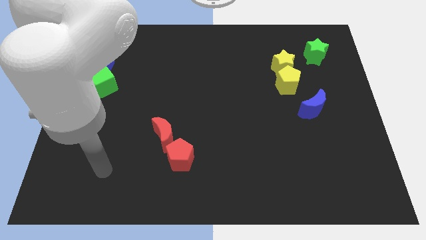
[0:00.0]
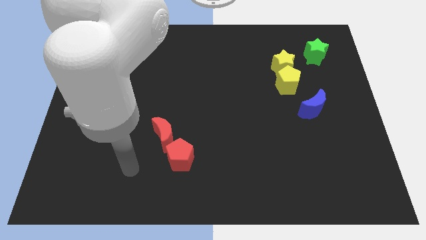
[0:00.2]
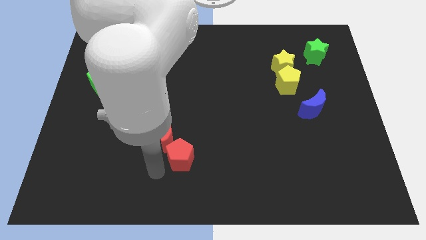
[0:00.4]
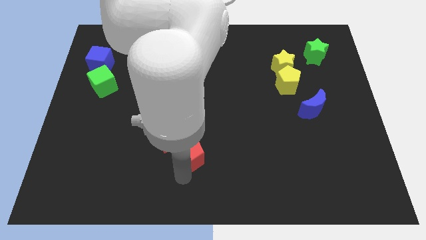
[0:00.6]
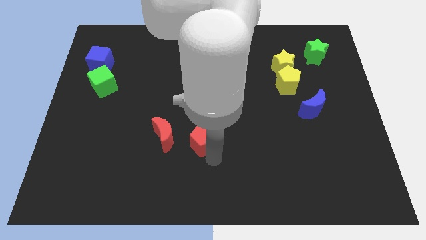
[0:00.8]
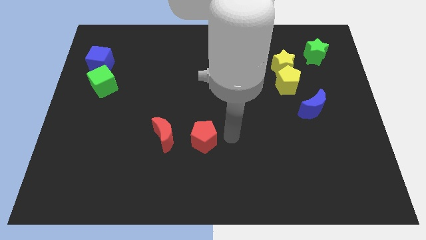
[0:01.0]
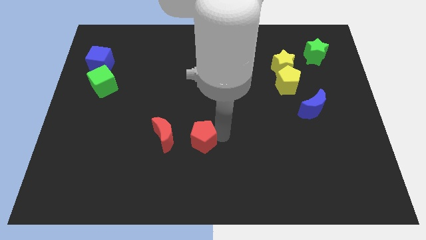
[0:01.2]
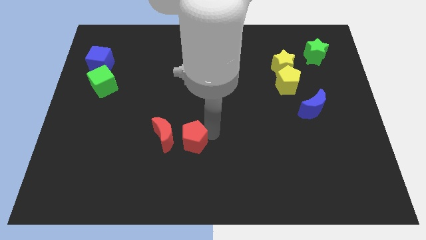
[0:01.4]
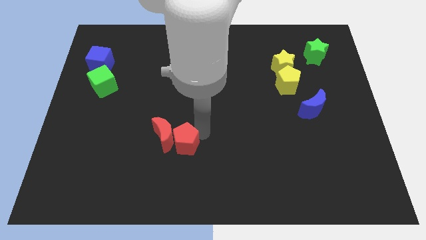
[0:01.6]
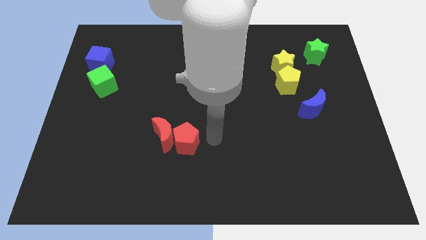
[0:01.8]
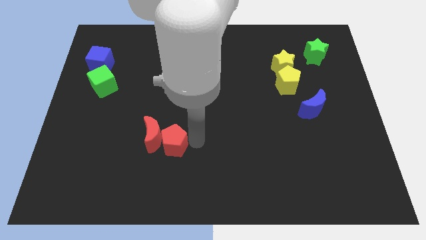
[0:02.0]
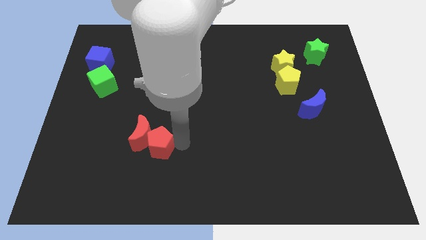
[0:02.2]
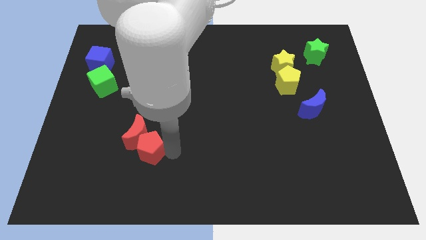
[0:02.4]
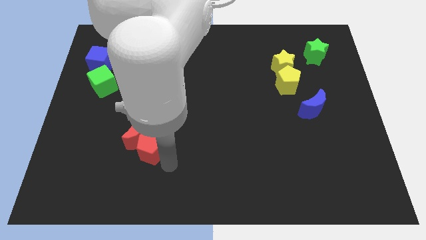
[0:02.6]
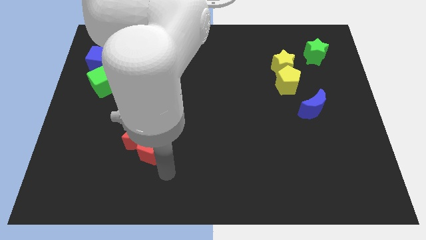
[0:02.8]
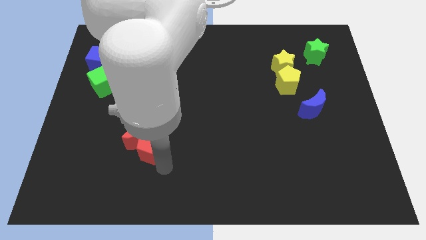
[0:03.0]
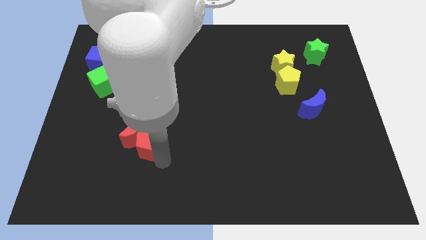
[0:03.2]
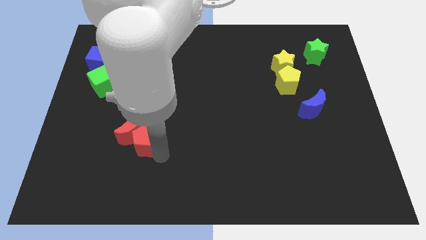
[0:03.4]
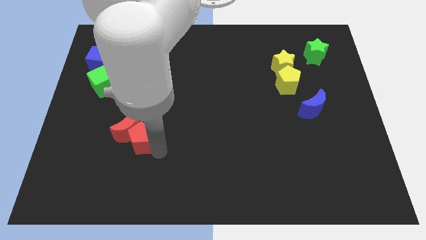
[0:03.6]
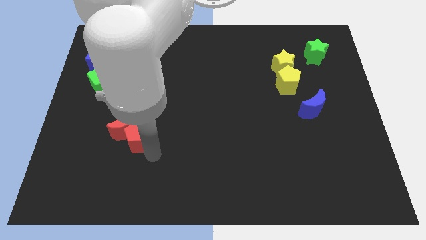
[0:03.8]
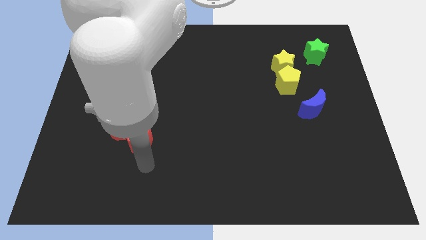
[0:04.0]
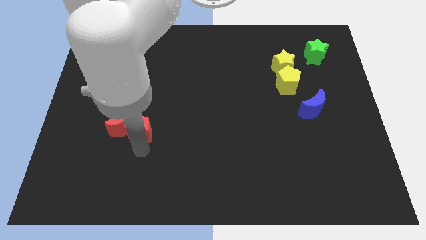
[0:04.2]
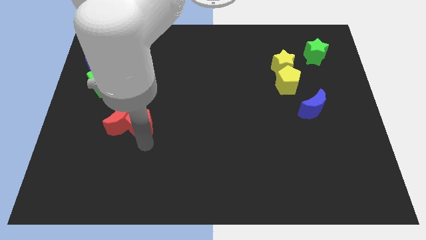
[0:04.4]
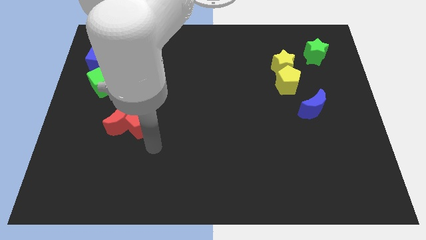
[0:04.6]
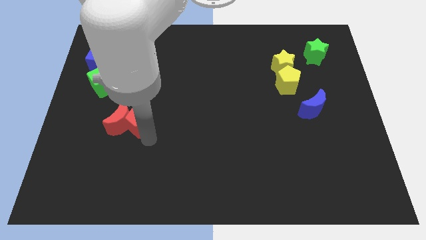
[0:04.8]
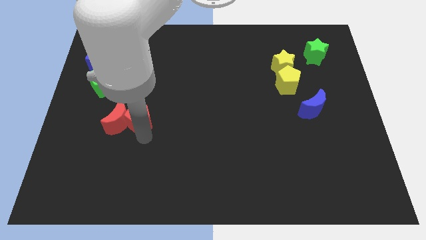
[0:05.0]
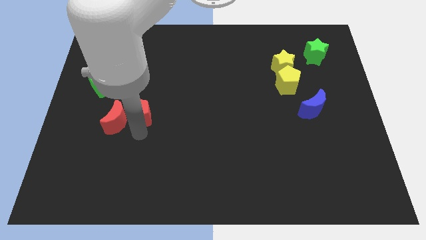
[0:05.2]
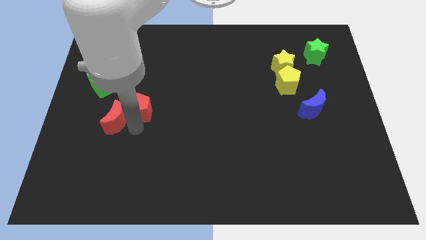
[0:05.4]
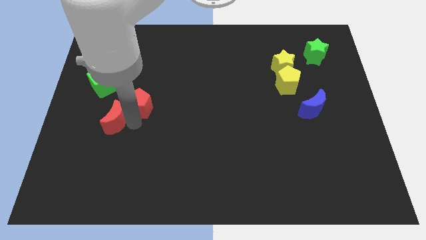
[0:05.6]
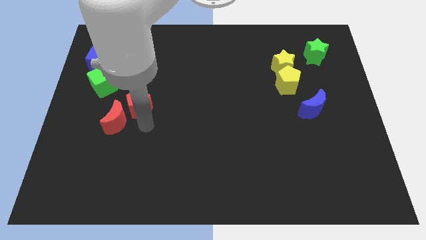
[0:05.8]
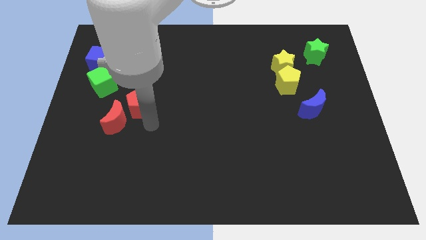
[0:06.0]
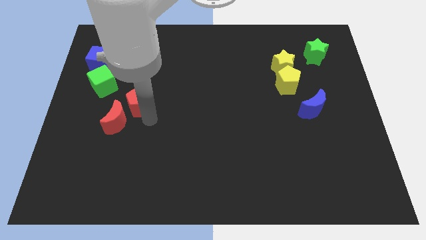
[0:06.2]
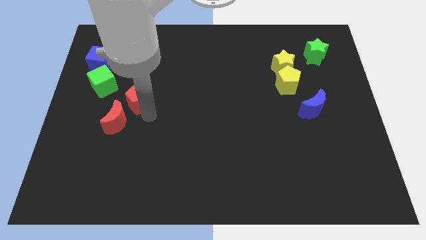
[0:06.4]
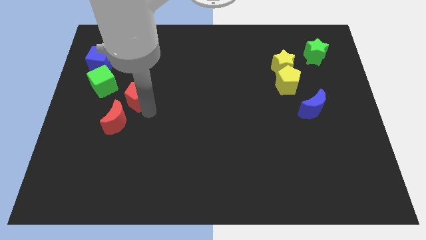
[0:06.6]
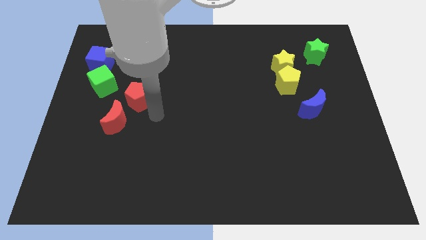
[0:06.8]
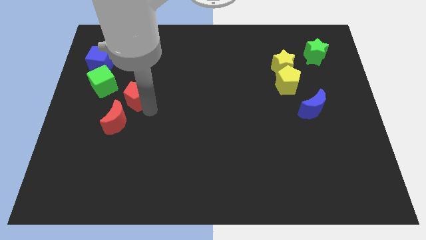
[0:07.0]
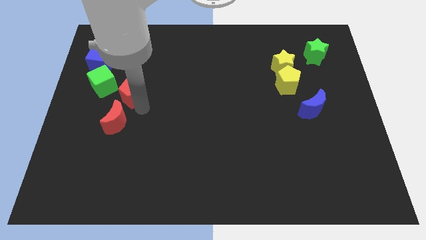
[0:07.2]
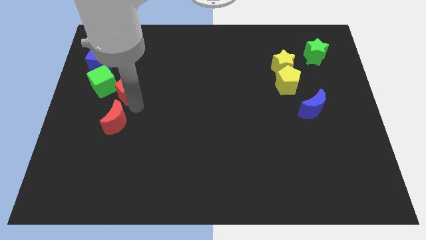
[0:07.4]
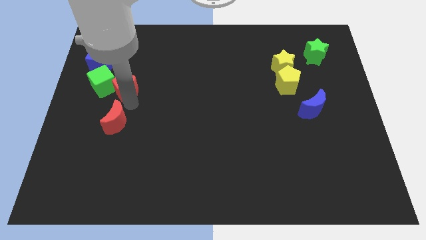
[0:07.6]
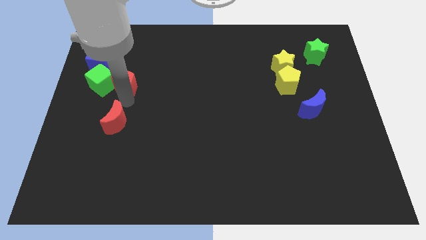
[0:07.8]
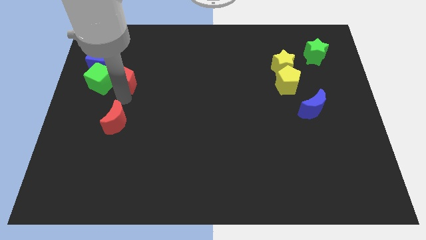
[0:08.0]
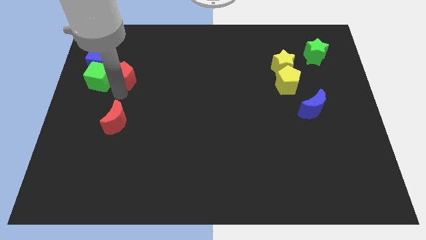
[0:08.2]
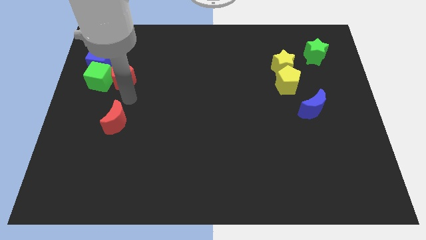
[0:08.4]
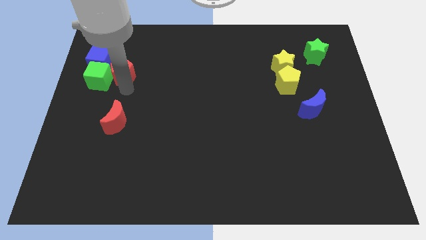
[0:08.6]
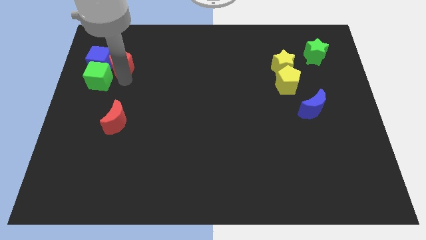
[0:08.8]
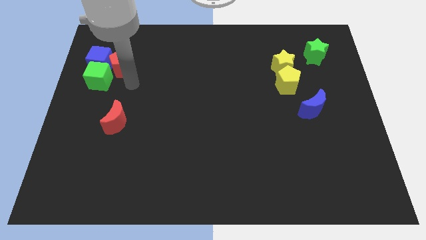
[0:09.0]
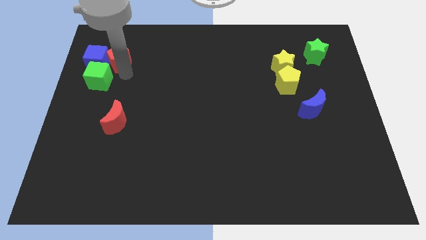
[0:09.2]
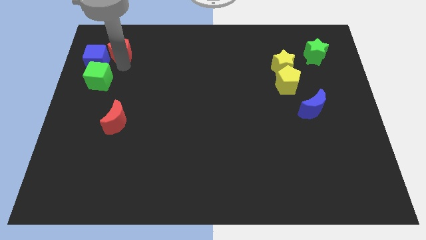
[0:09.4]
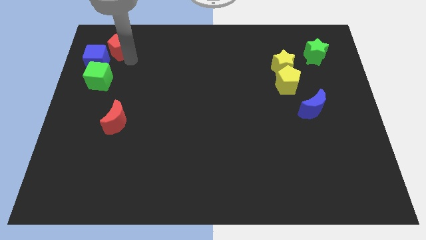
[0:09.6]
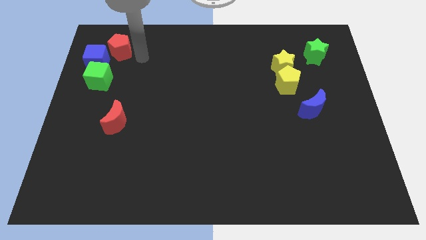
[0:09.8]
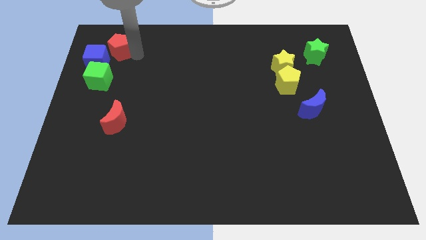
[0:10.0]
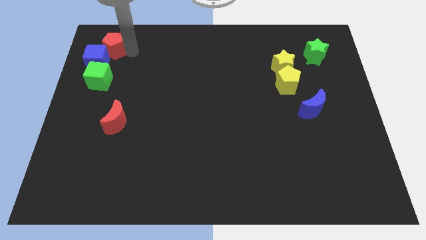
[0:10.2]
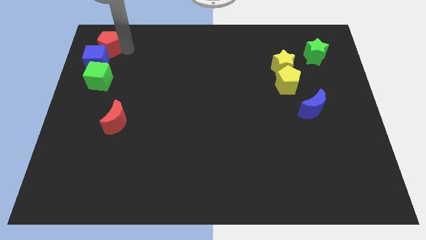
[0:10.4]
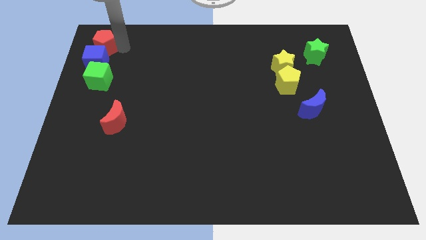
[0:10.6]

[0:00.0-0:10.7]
put the red pentagon to the top left of the board

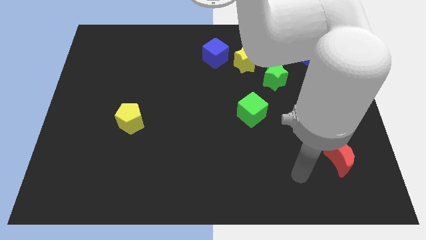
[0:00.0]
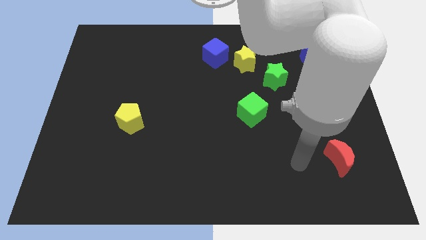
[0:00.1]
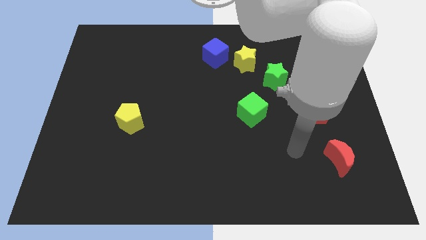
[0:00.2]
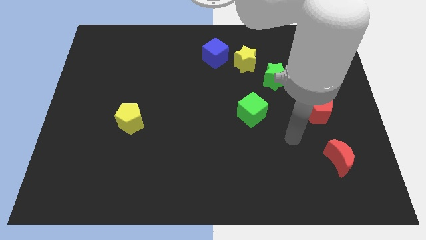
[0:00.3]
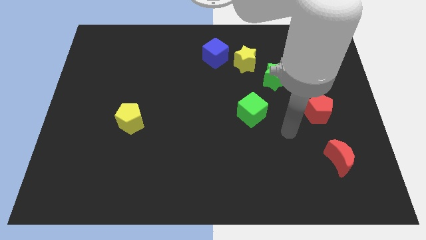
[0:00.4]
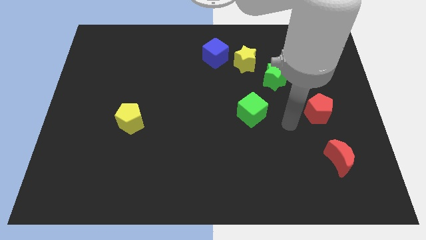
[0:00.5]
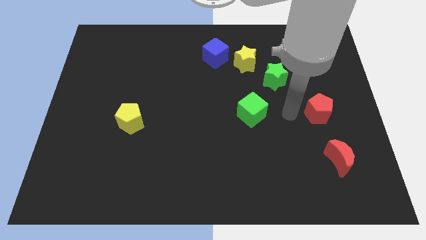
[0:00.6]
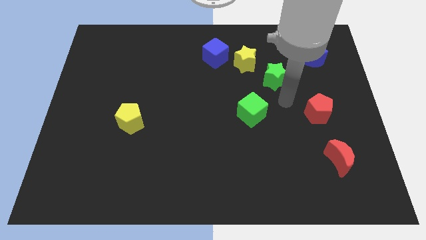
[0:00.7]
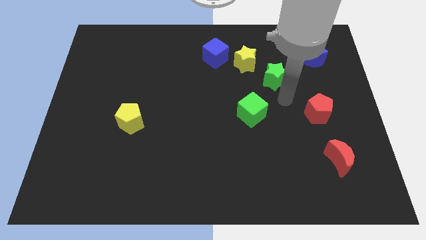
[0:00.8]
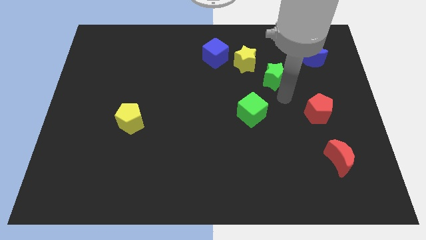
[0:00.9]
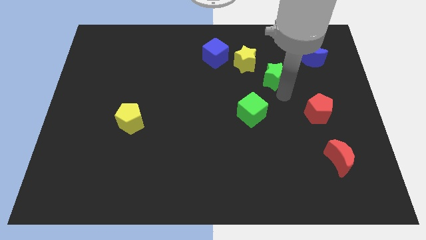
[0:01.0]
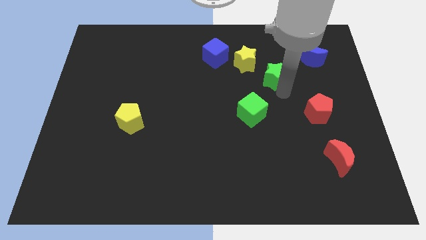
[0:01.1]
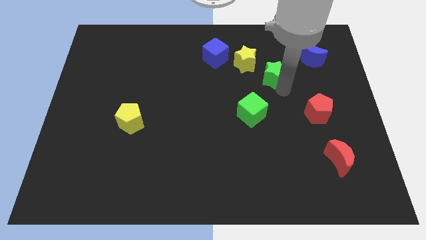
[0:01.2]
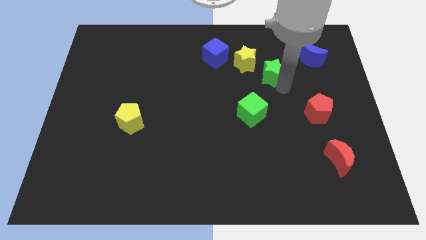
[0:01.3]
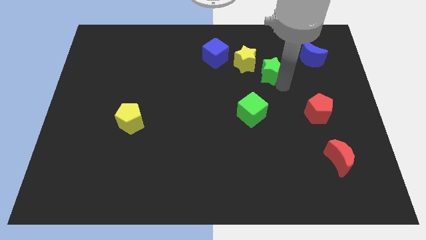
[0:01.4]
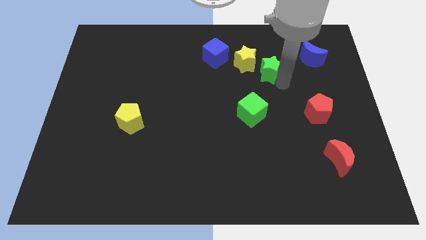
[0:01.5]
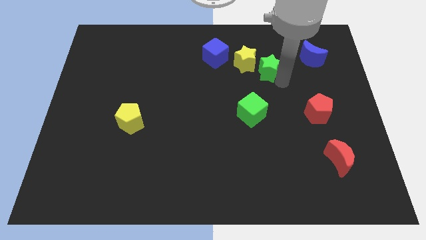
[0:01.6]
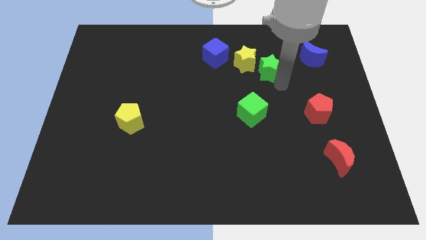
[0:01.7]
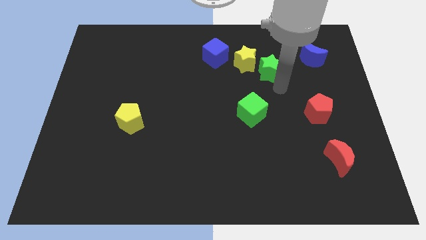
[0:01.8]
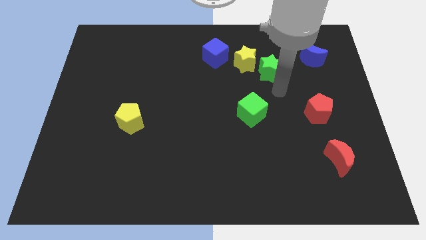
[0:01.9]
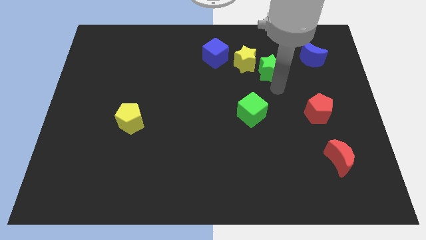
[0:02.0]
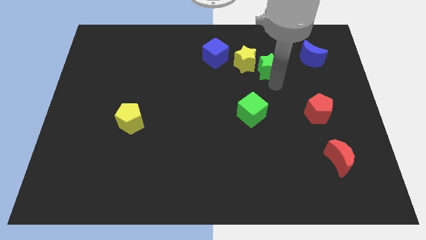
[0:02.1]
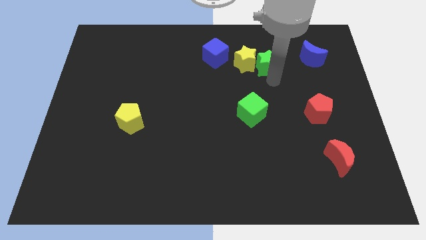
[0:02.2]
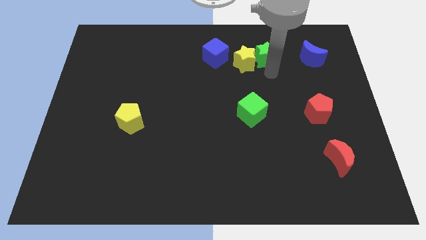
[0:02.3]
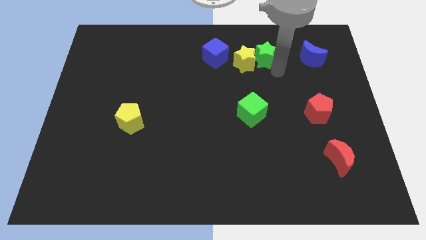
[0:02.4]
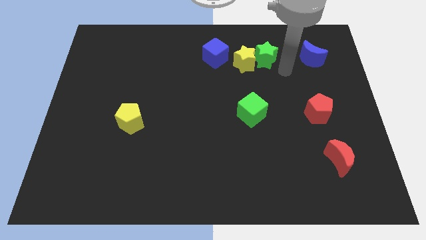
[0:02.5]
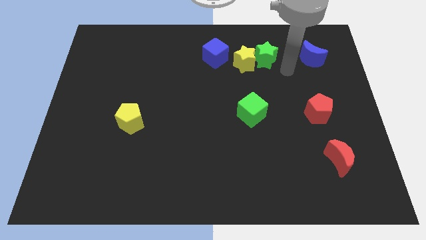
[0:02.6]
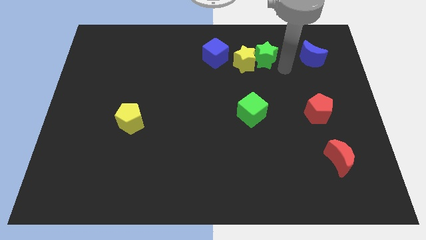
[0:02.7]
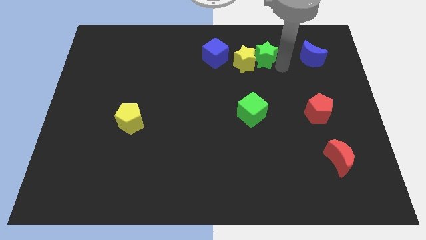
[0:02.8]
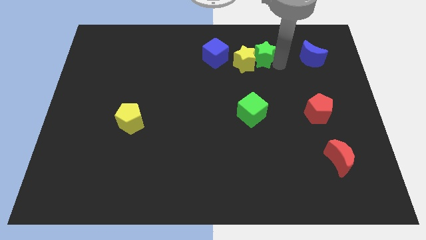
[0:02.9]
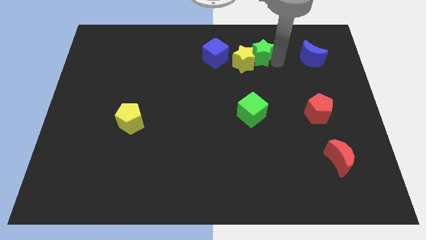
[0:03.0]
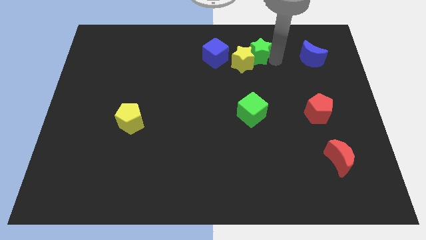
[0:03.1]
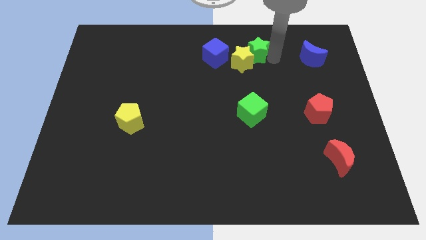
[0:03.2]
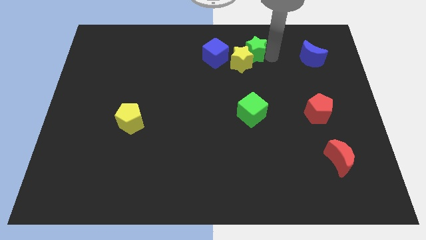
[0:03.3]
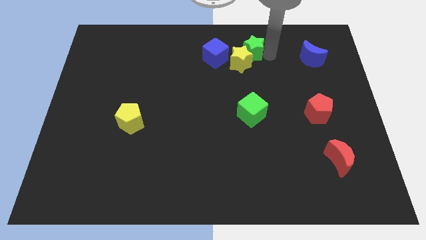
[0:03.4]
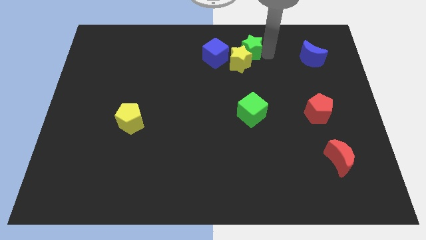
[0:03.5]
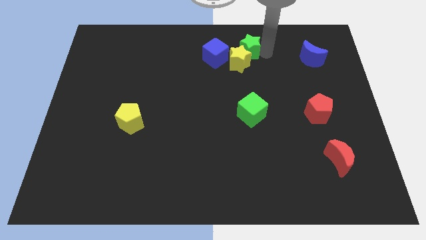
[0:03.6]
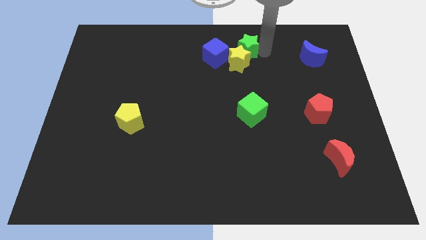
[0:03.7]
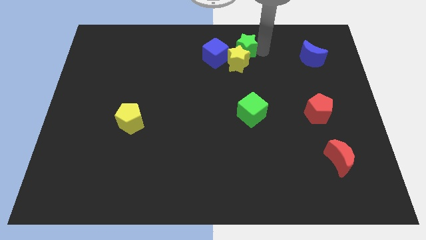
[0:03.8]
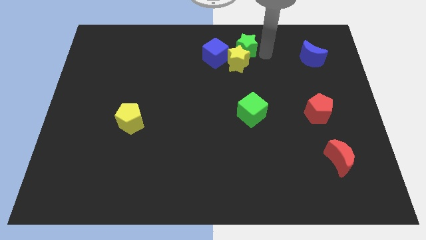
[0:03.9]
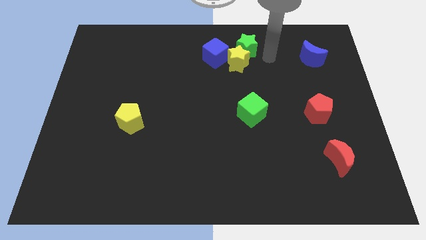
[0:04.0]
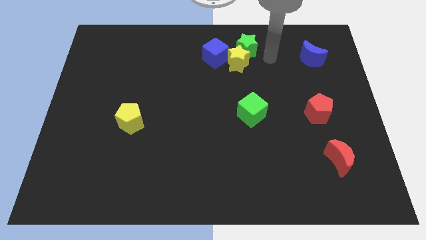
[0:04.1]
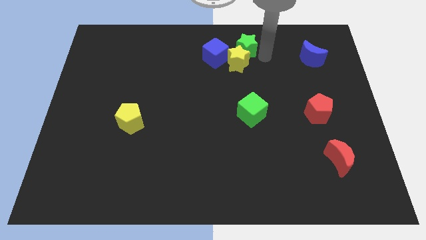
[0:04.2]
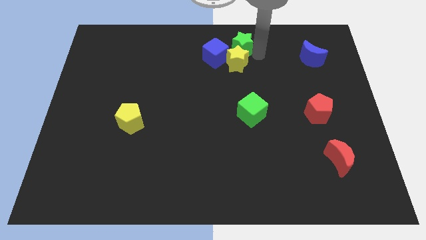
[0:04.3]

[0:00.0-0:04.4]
move the green star to the top
